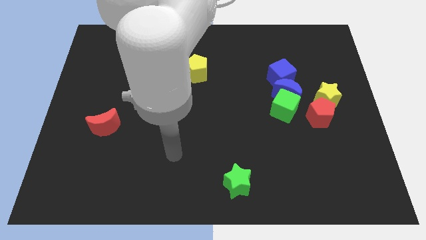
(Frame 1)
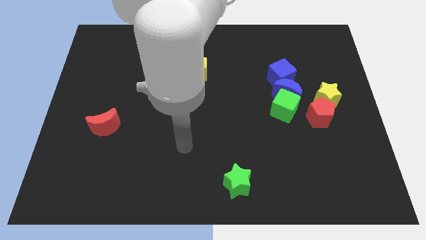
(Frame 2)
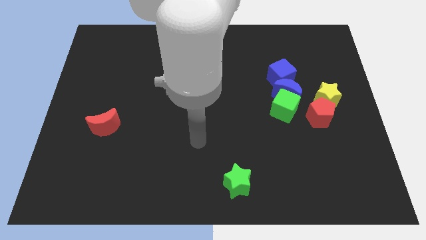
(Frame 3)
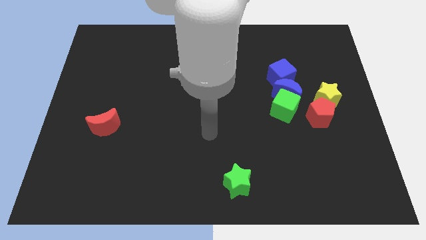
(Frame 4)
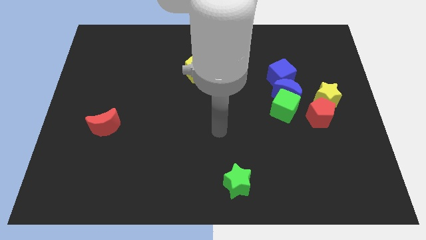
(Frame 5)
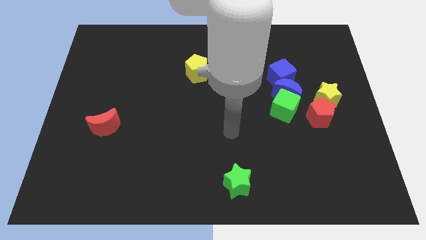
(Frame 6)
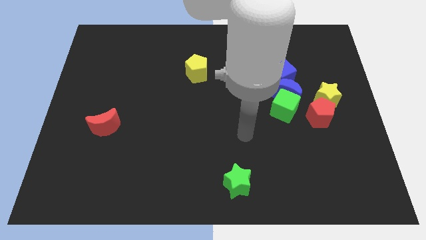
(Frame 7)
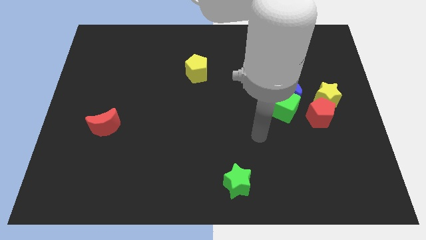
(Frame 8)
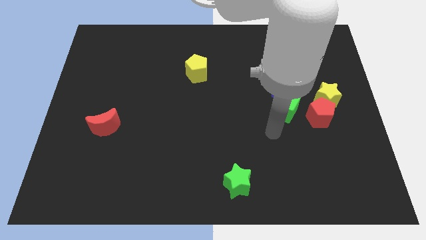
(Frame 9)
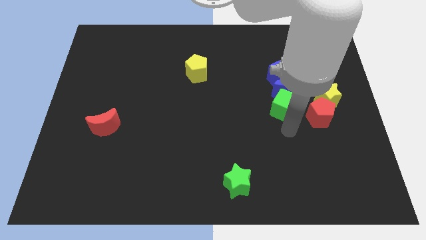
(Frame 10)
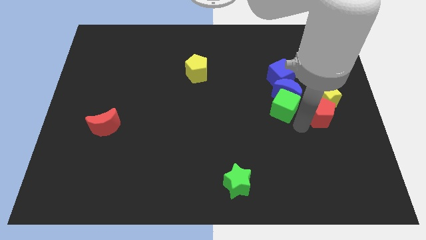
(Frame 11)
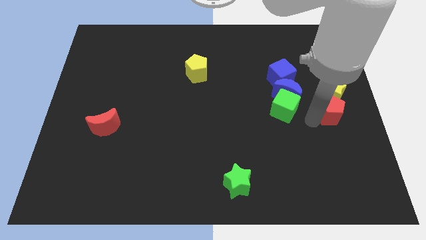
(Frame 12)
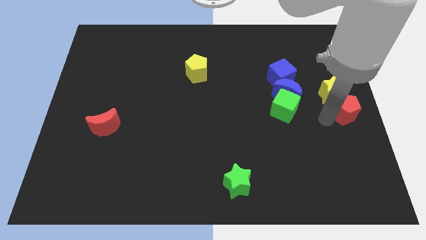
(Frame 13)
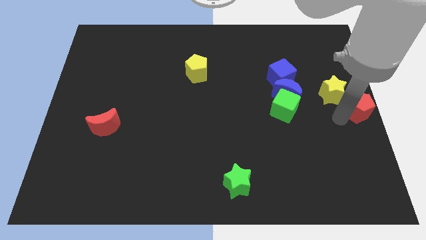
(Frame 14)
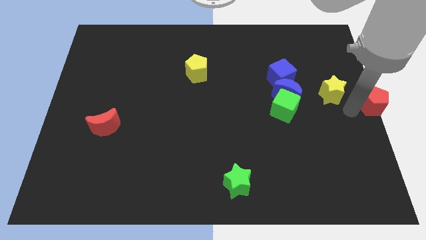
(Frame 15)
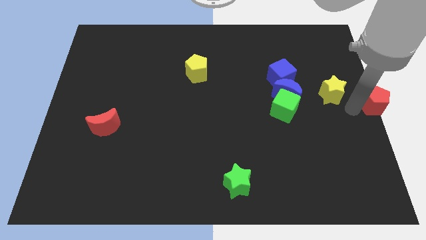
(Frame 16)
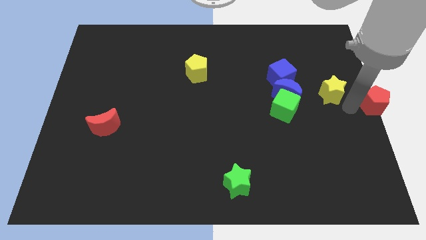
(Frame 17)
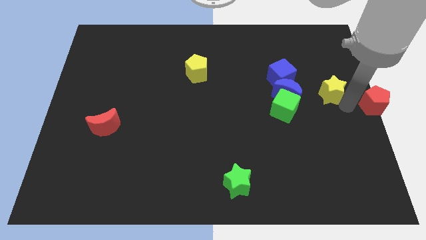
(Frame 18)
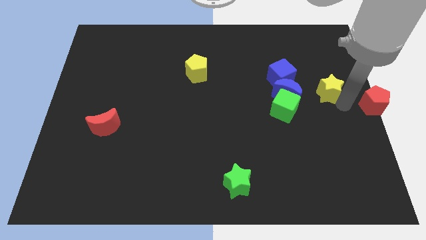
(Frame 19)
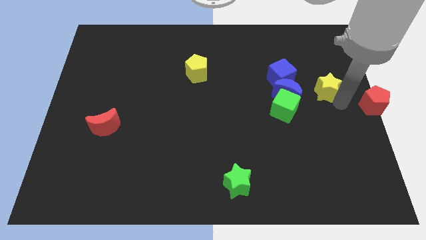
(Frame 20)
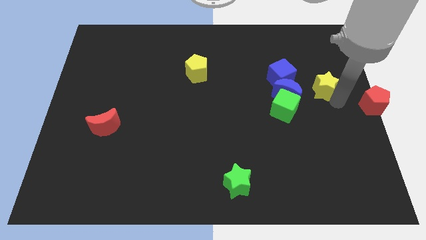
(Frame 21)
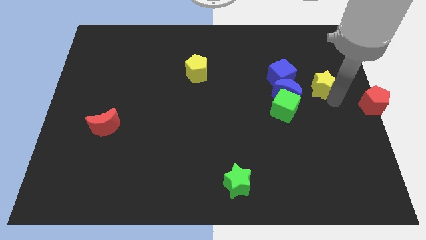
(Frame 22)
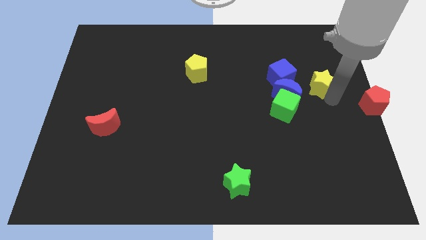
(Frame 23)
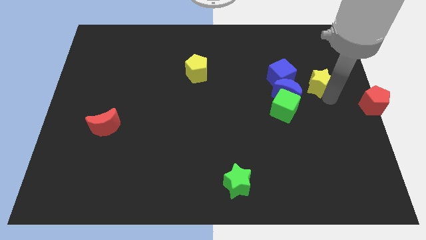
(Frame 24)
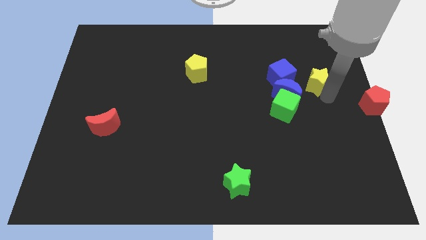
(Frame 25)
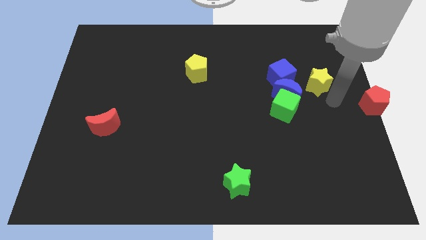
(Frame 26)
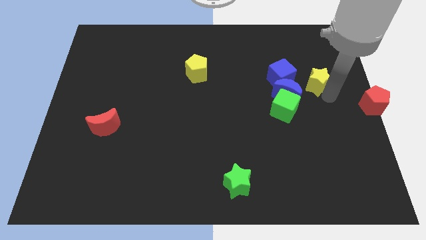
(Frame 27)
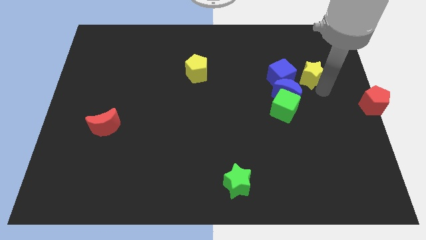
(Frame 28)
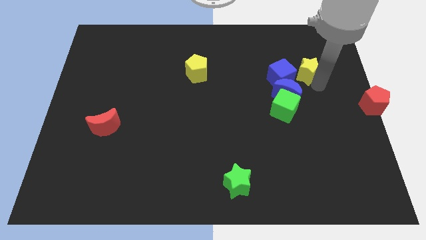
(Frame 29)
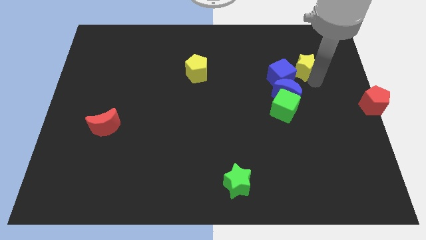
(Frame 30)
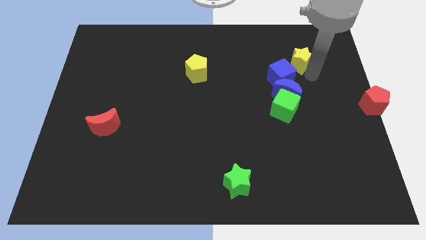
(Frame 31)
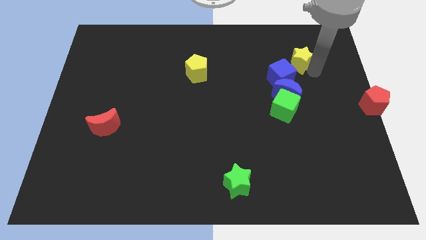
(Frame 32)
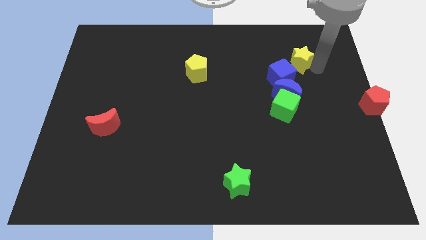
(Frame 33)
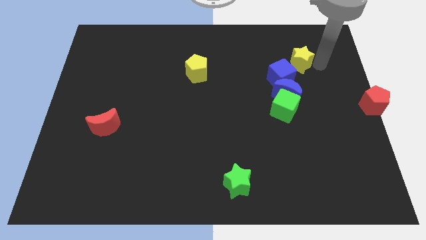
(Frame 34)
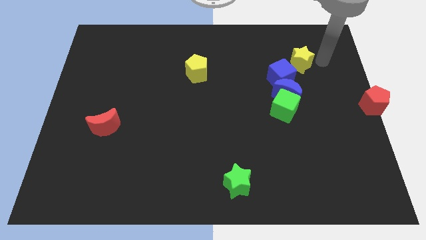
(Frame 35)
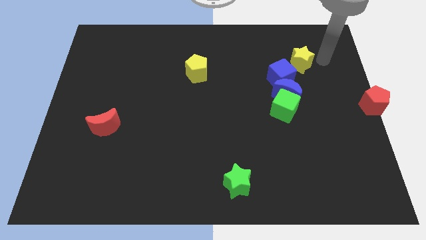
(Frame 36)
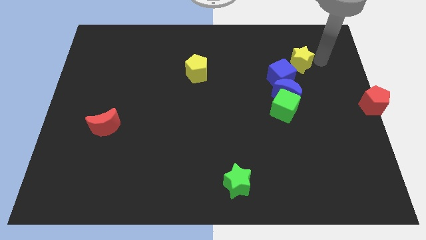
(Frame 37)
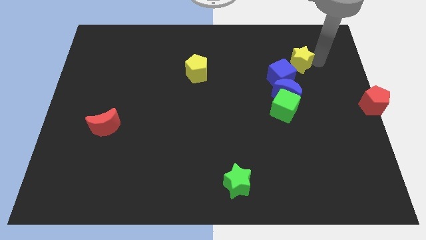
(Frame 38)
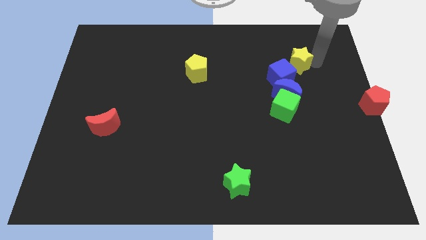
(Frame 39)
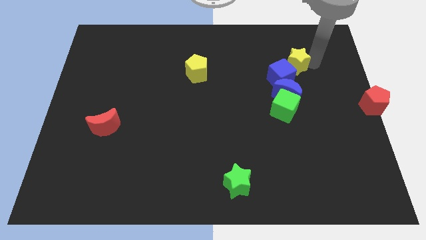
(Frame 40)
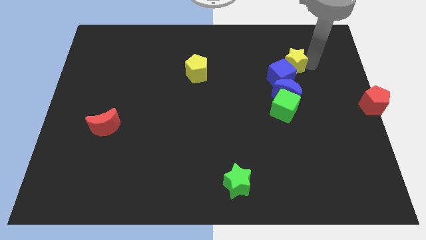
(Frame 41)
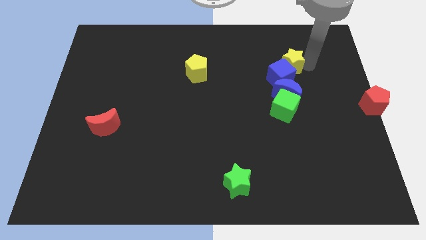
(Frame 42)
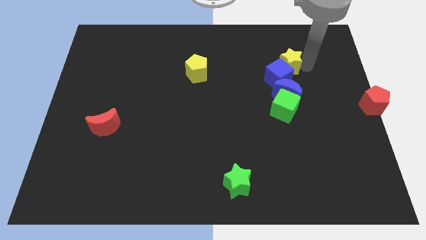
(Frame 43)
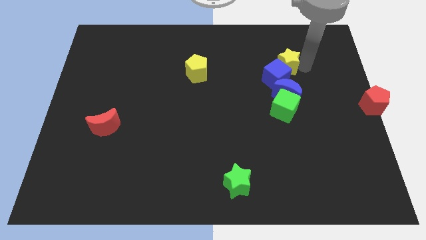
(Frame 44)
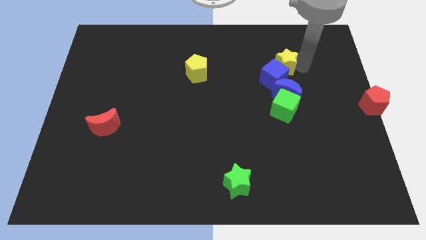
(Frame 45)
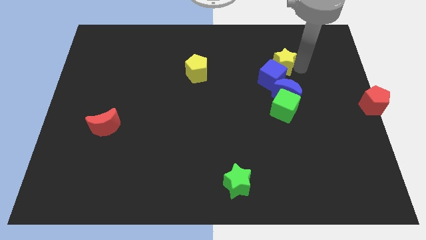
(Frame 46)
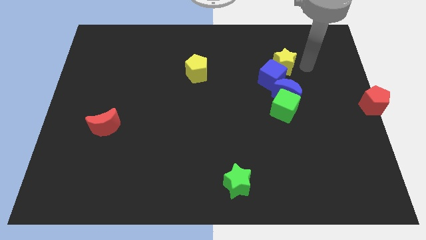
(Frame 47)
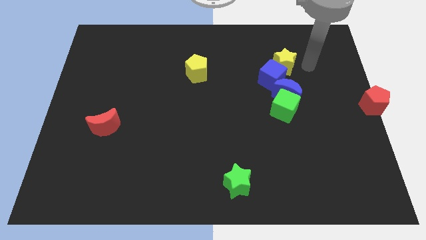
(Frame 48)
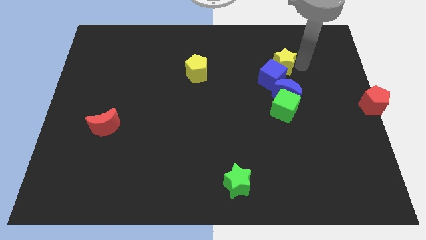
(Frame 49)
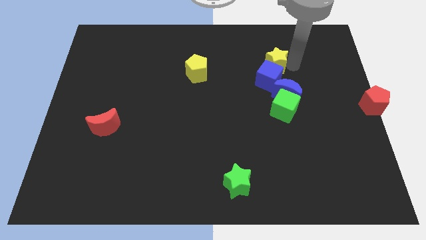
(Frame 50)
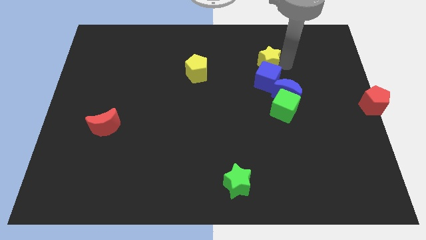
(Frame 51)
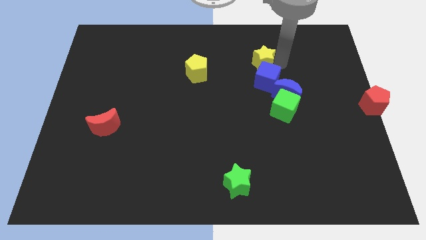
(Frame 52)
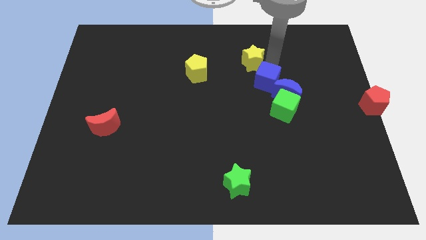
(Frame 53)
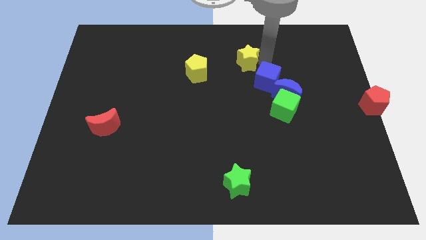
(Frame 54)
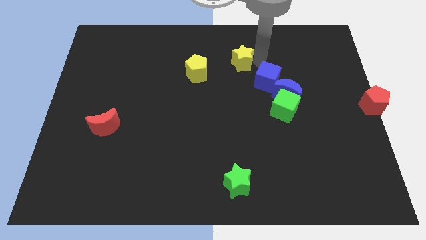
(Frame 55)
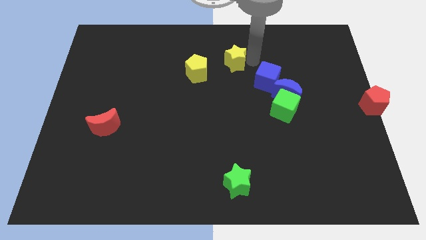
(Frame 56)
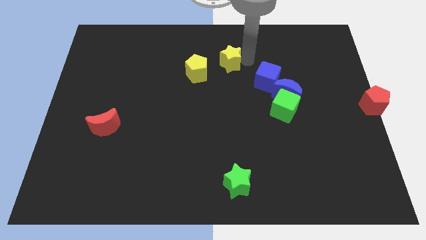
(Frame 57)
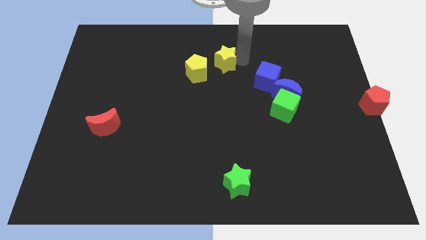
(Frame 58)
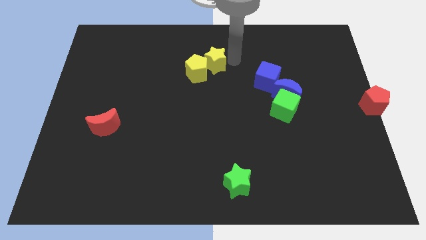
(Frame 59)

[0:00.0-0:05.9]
move the yellow star towards the yellow pentagon
